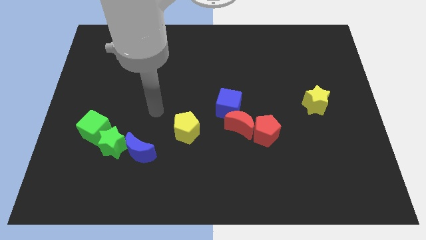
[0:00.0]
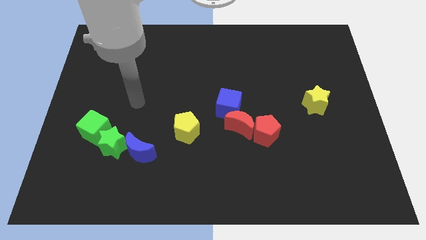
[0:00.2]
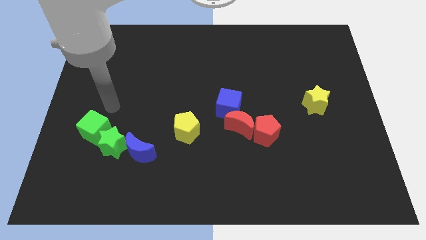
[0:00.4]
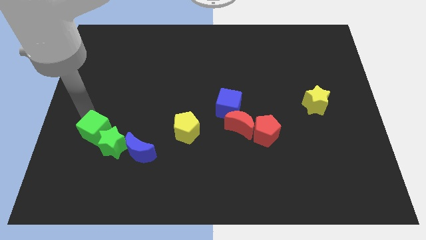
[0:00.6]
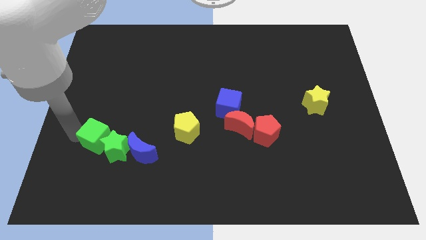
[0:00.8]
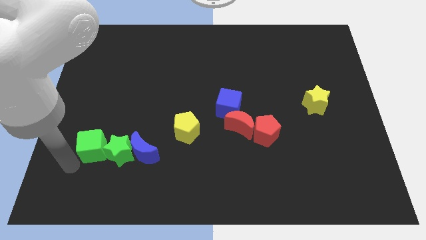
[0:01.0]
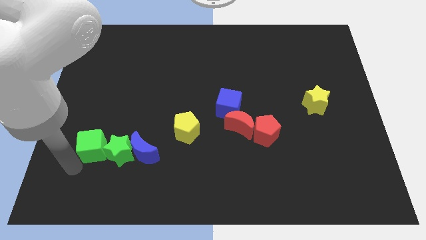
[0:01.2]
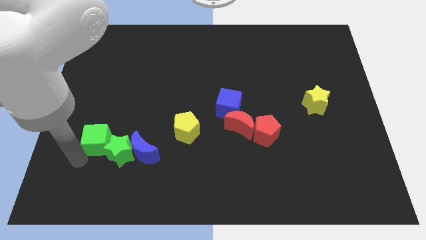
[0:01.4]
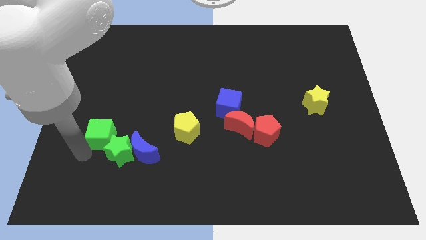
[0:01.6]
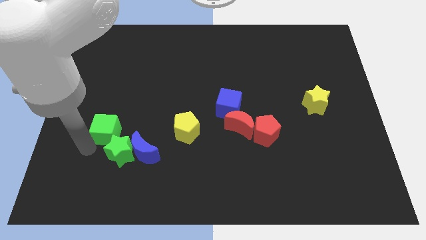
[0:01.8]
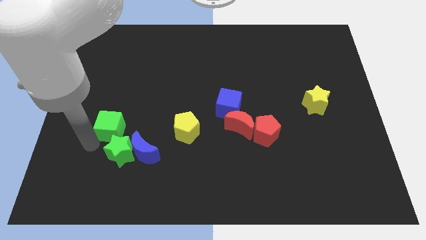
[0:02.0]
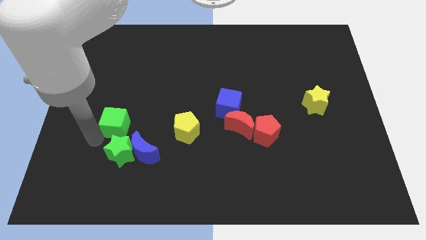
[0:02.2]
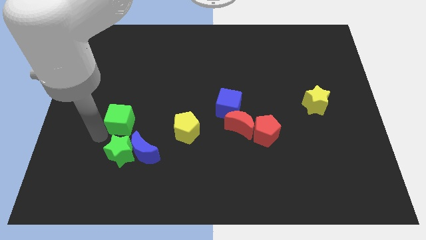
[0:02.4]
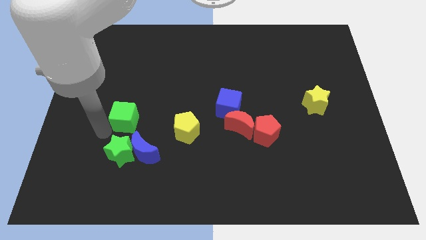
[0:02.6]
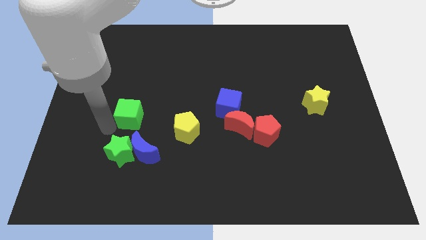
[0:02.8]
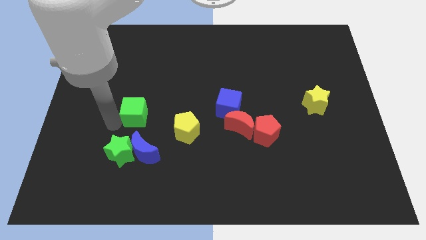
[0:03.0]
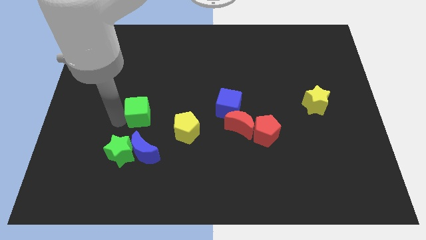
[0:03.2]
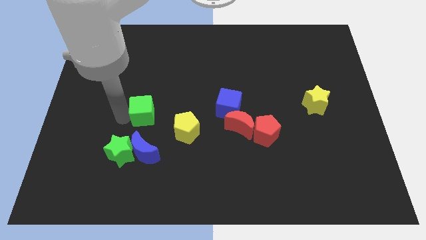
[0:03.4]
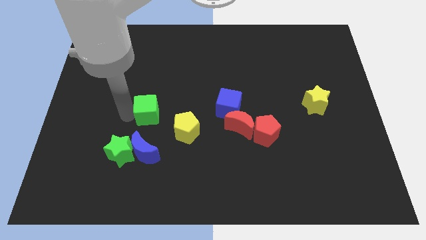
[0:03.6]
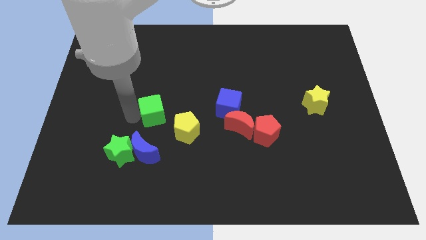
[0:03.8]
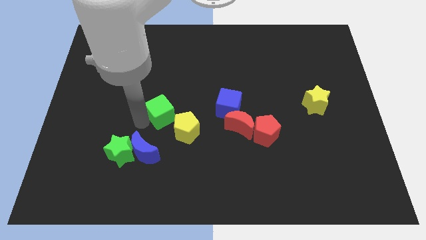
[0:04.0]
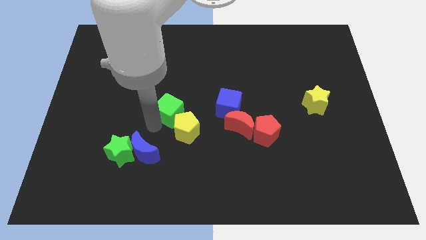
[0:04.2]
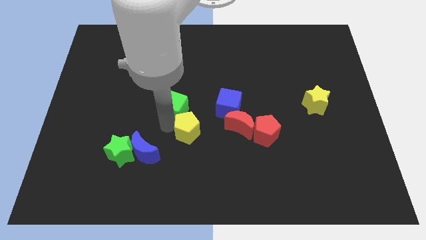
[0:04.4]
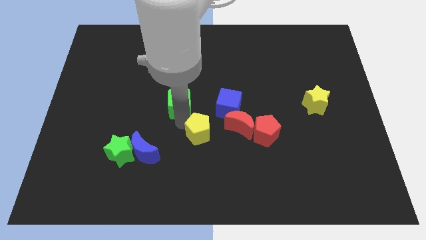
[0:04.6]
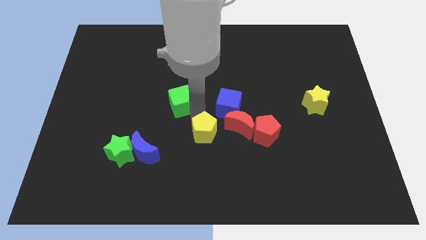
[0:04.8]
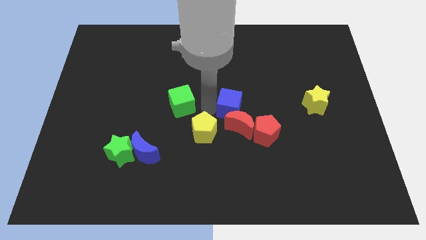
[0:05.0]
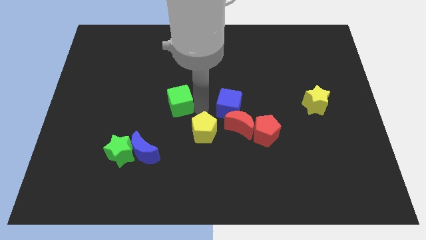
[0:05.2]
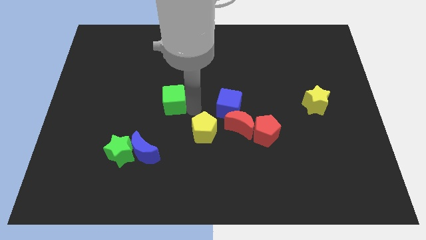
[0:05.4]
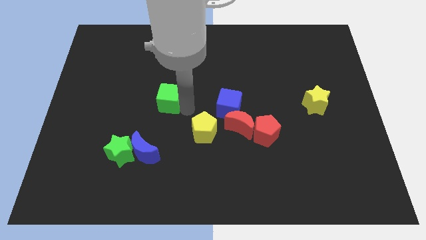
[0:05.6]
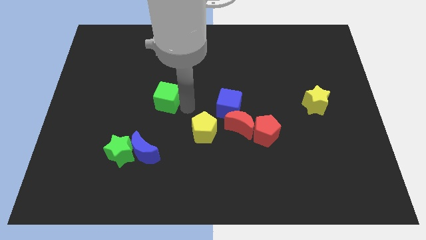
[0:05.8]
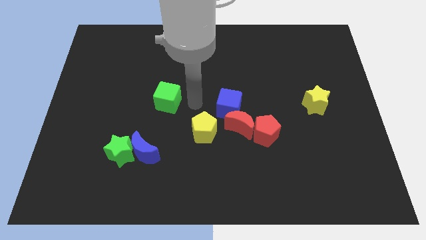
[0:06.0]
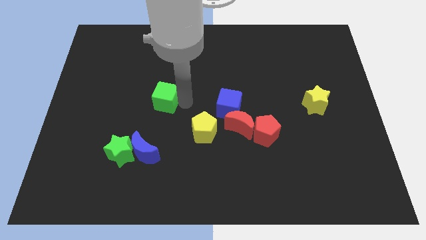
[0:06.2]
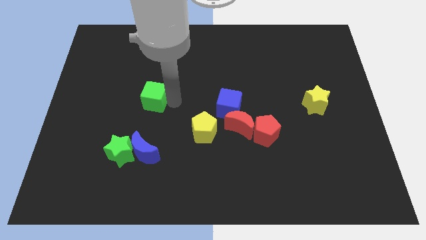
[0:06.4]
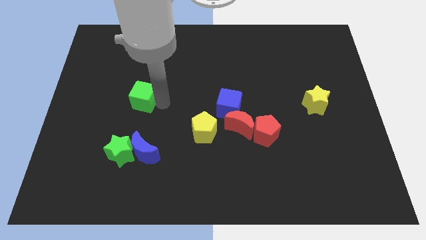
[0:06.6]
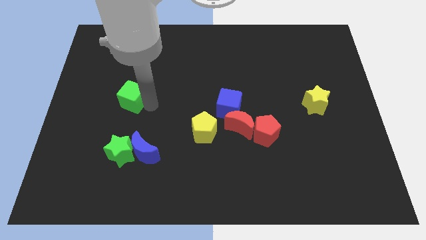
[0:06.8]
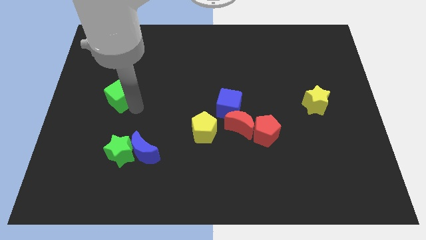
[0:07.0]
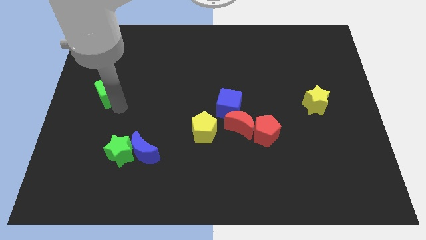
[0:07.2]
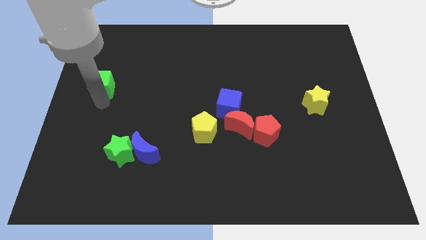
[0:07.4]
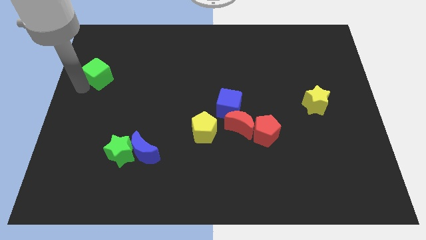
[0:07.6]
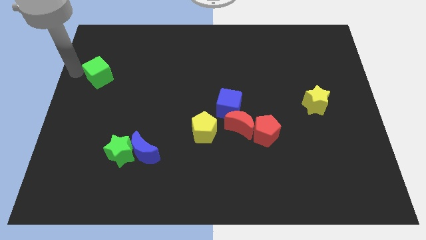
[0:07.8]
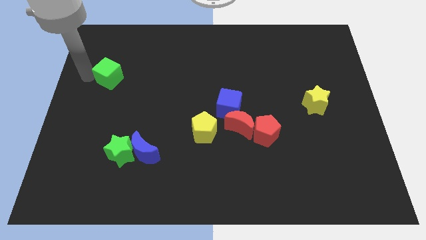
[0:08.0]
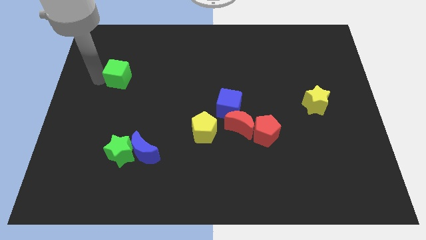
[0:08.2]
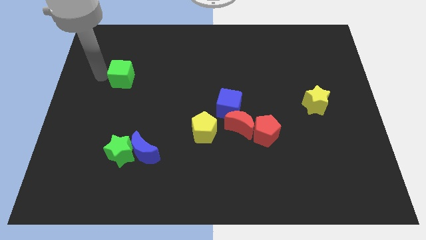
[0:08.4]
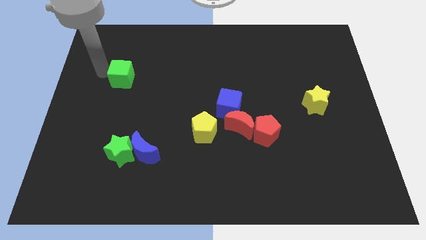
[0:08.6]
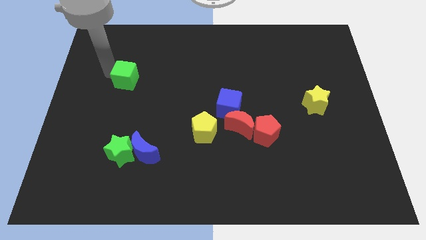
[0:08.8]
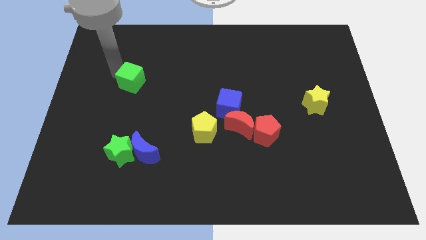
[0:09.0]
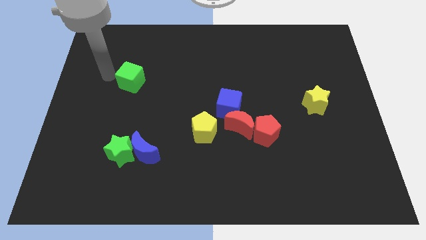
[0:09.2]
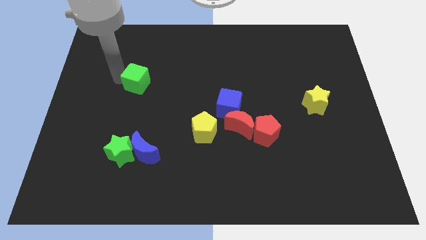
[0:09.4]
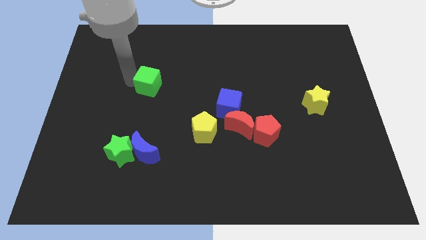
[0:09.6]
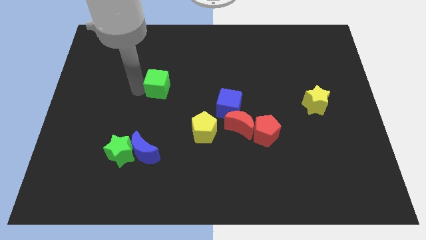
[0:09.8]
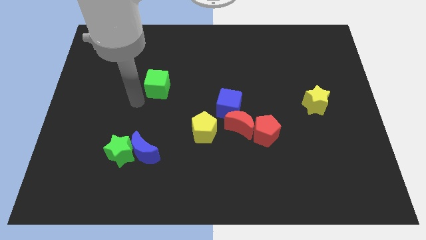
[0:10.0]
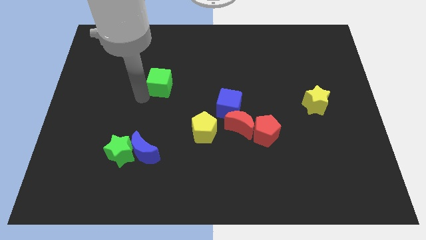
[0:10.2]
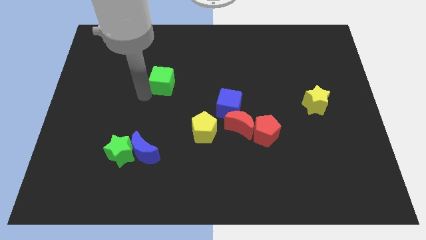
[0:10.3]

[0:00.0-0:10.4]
move the green cube up and to the right

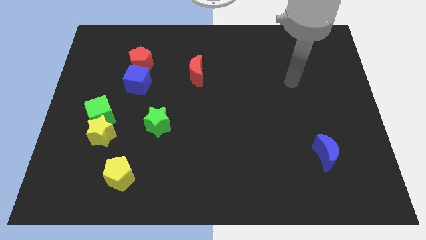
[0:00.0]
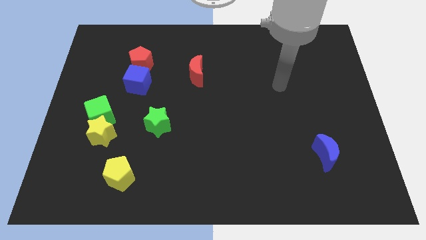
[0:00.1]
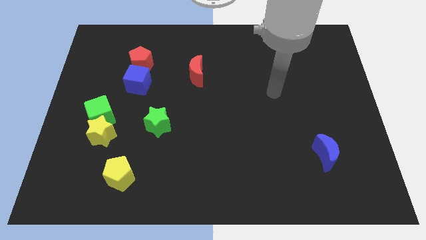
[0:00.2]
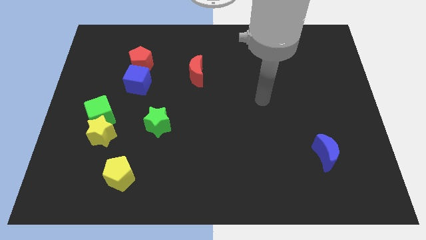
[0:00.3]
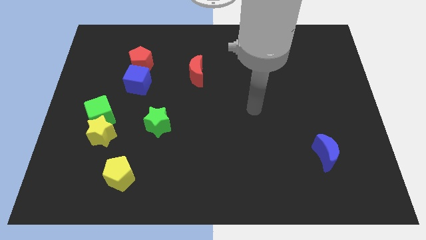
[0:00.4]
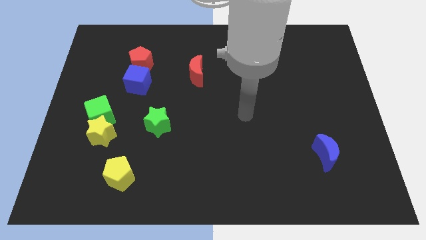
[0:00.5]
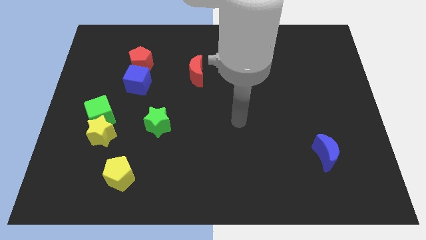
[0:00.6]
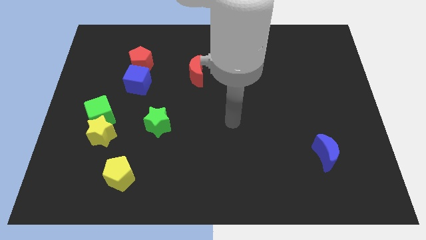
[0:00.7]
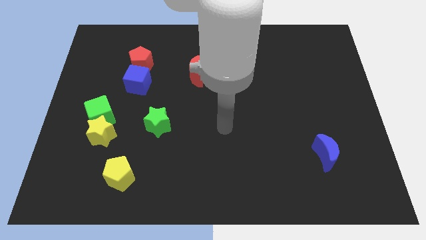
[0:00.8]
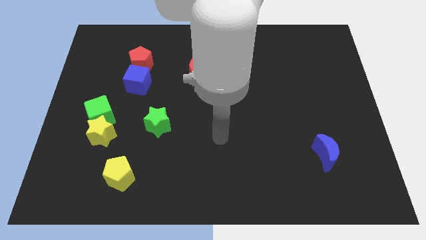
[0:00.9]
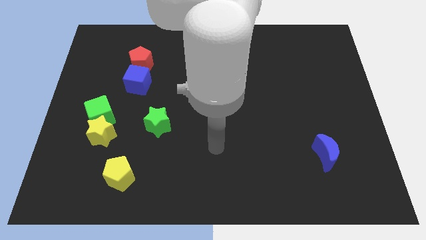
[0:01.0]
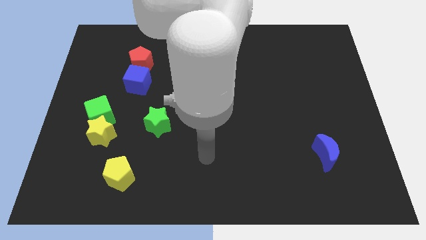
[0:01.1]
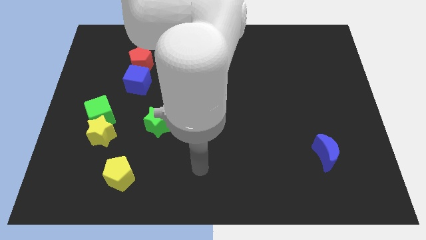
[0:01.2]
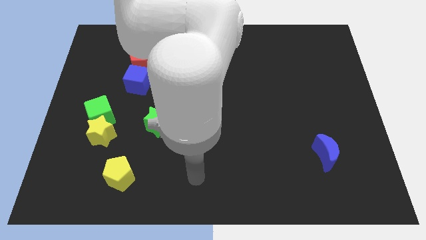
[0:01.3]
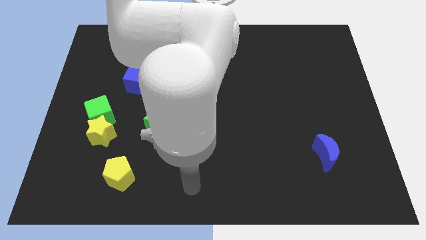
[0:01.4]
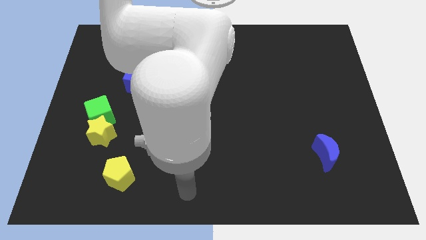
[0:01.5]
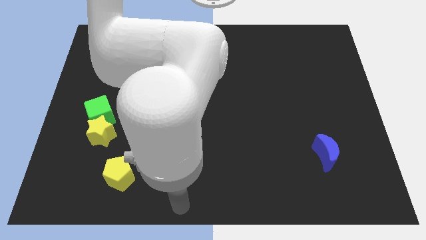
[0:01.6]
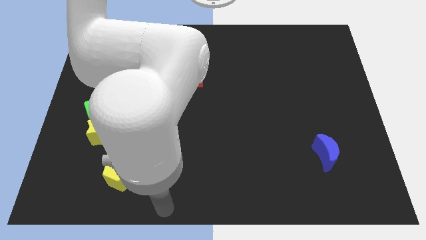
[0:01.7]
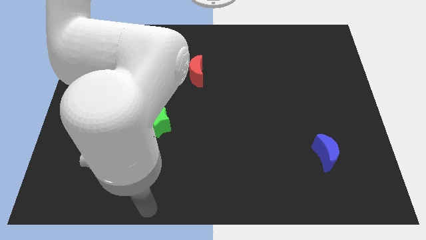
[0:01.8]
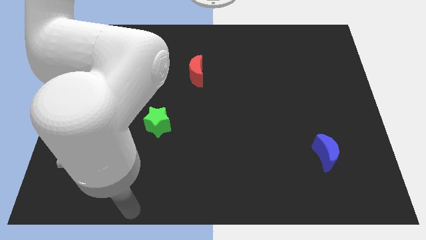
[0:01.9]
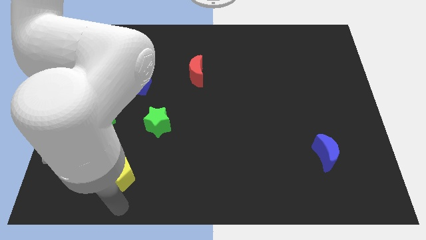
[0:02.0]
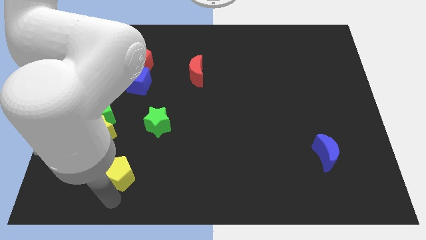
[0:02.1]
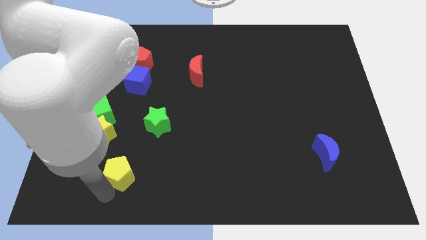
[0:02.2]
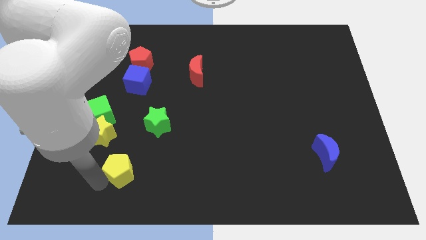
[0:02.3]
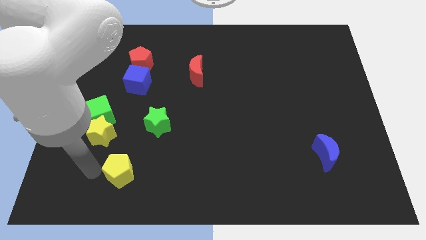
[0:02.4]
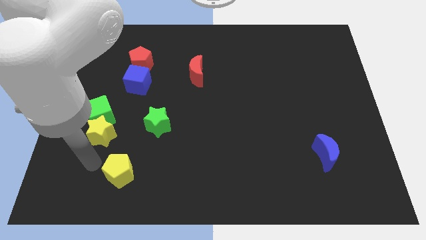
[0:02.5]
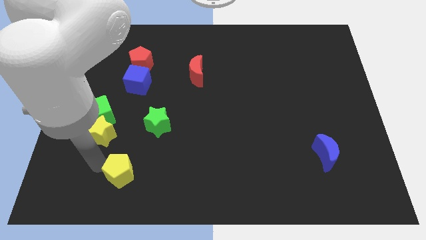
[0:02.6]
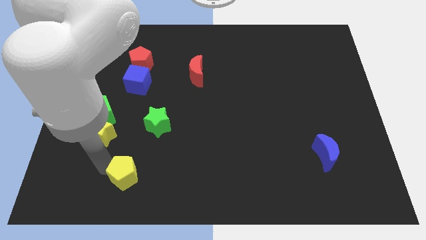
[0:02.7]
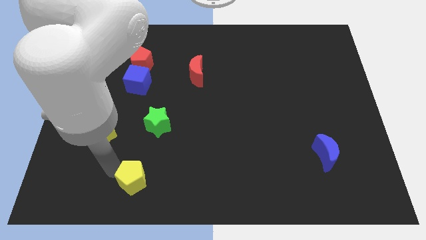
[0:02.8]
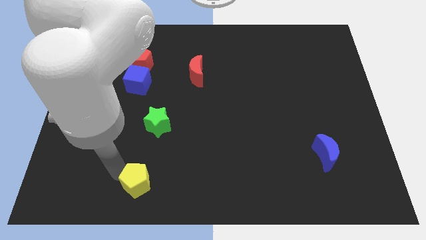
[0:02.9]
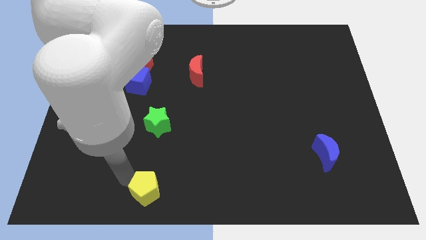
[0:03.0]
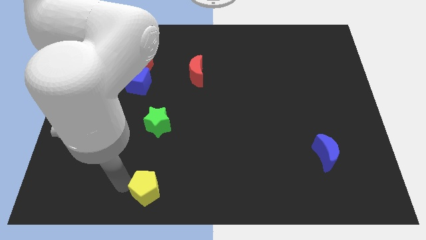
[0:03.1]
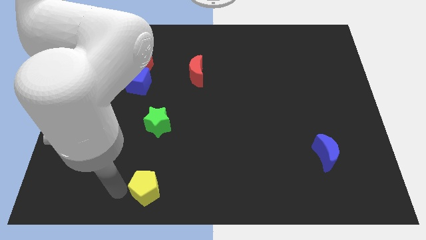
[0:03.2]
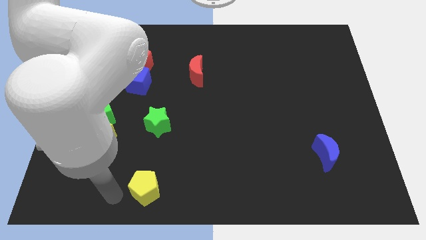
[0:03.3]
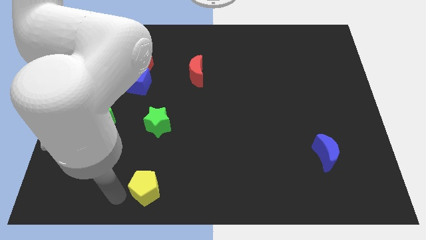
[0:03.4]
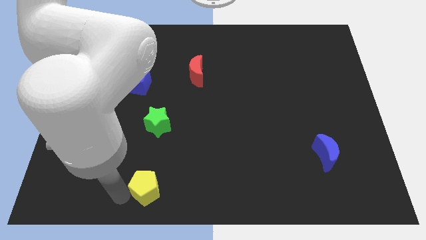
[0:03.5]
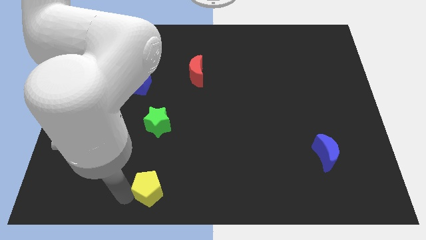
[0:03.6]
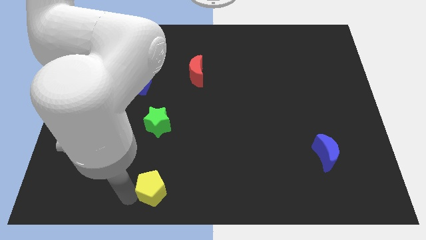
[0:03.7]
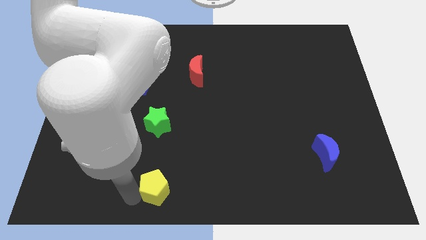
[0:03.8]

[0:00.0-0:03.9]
move the yellow pentagon to the right slightly
